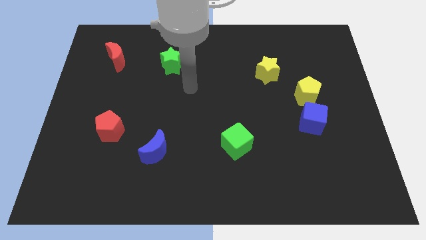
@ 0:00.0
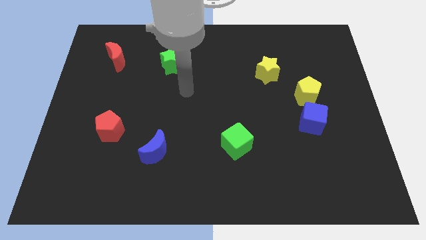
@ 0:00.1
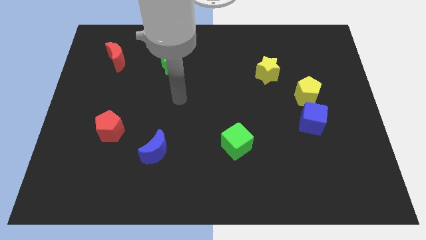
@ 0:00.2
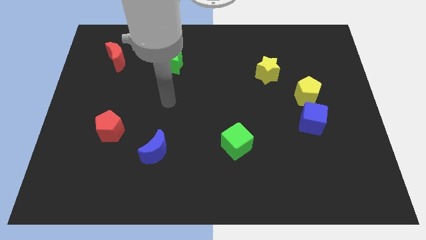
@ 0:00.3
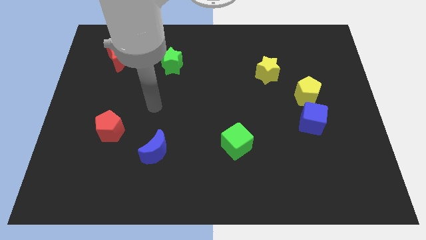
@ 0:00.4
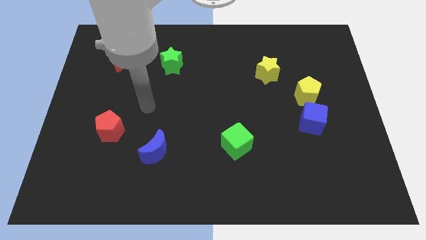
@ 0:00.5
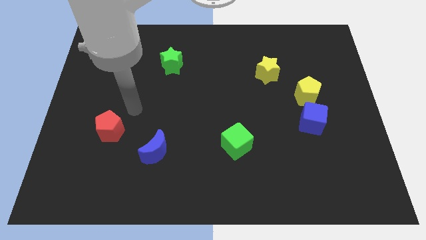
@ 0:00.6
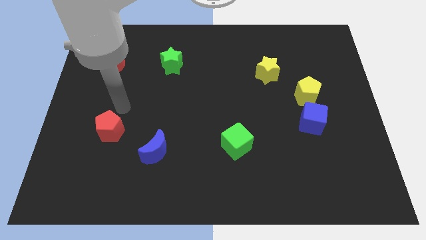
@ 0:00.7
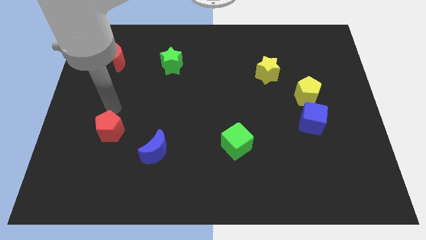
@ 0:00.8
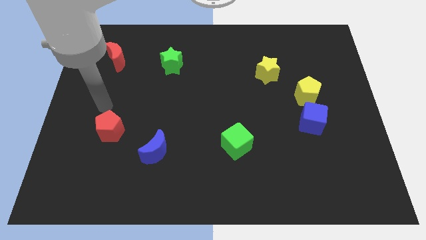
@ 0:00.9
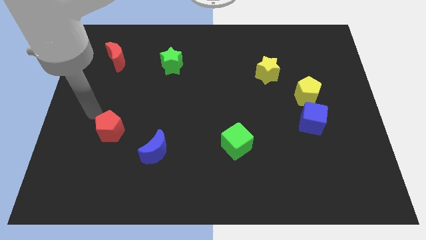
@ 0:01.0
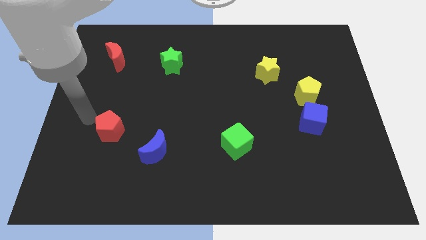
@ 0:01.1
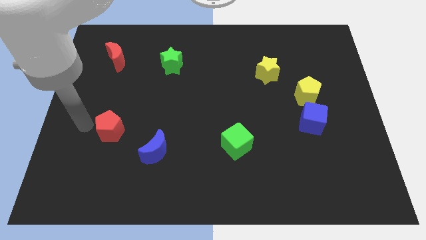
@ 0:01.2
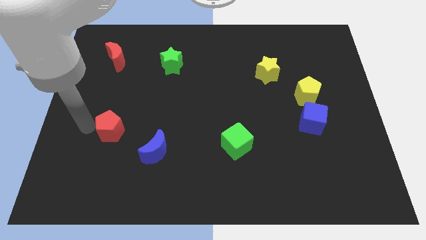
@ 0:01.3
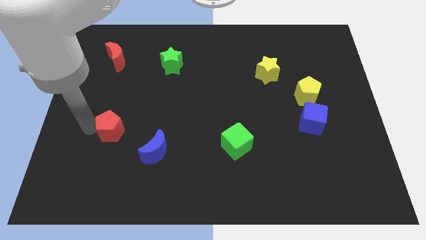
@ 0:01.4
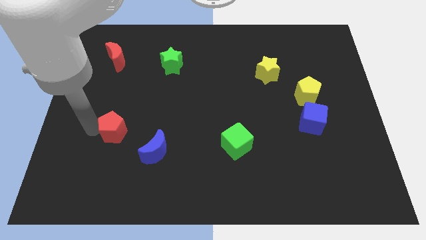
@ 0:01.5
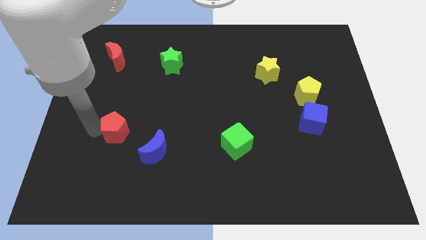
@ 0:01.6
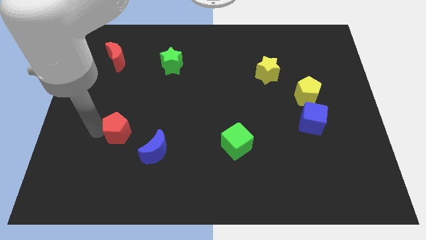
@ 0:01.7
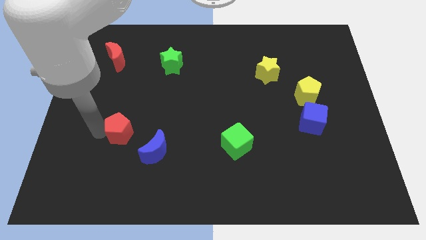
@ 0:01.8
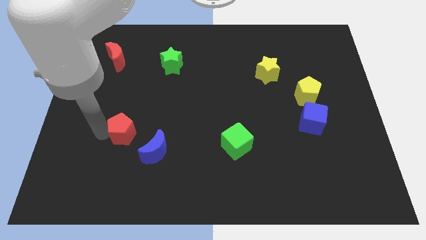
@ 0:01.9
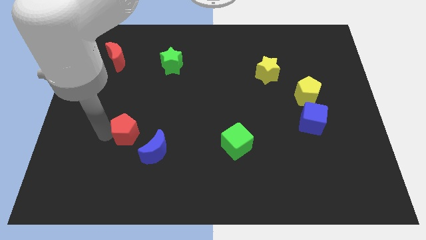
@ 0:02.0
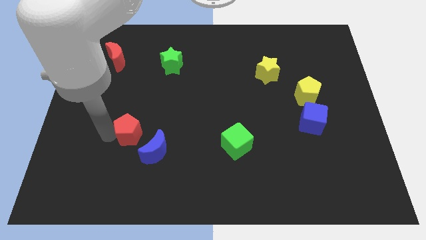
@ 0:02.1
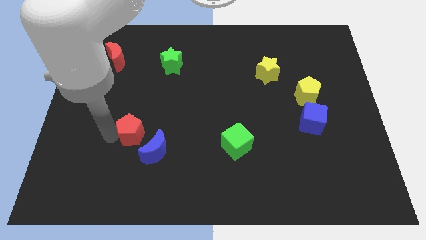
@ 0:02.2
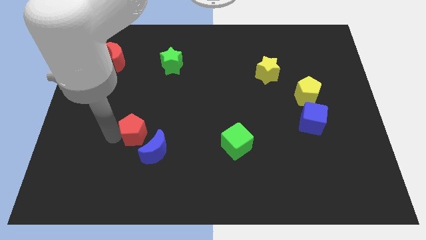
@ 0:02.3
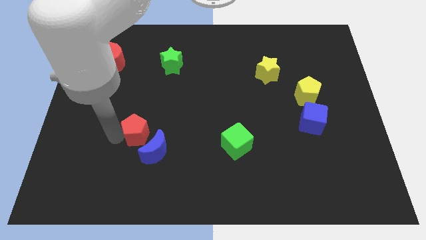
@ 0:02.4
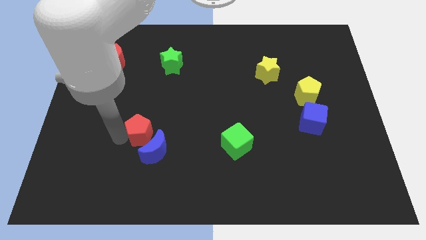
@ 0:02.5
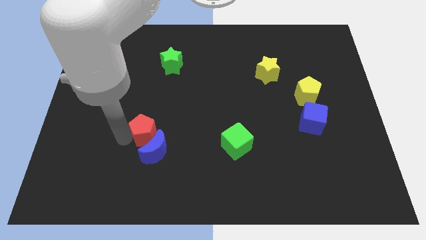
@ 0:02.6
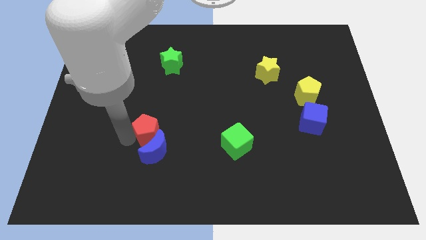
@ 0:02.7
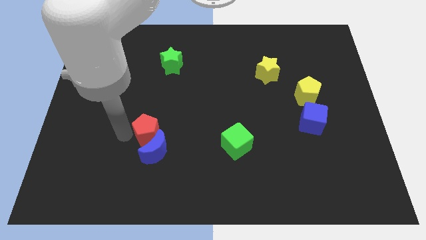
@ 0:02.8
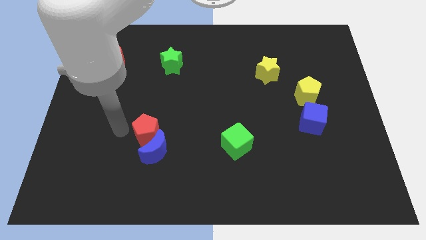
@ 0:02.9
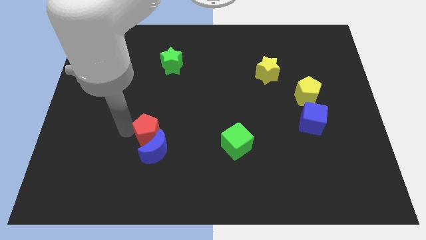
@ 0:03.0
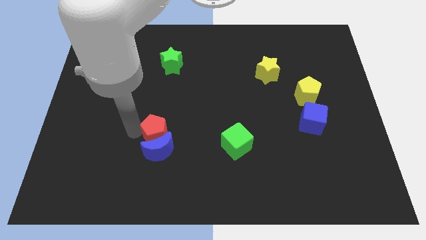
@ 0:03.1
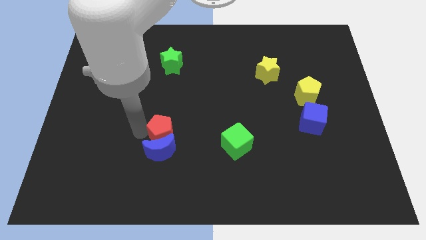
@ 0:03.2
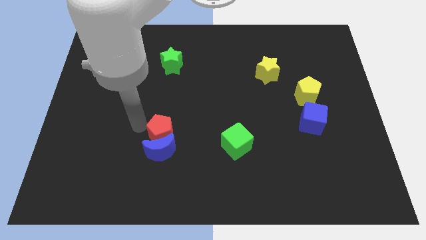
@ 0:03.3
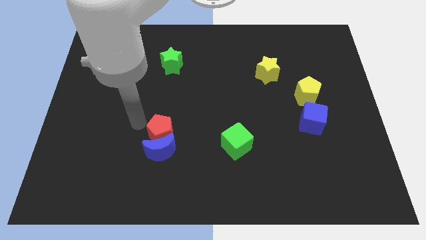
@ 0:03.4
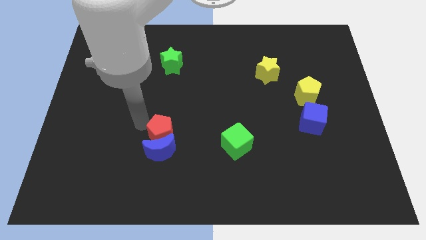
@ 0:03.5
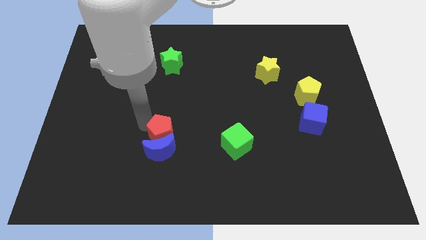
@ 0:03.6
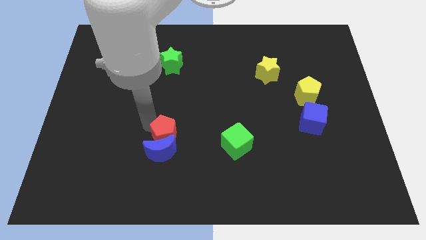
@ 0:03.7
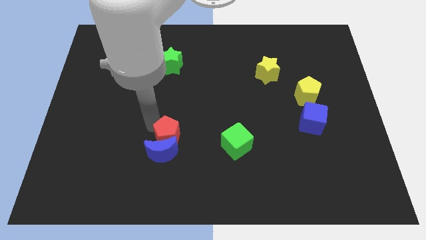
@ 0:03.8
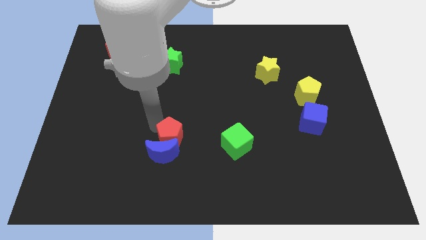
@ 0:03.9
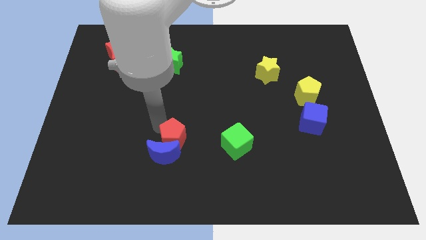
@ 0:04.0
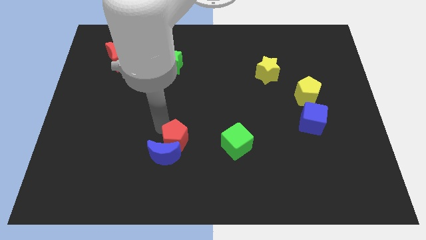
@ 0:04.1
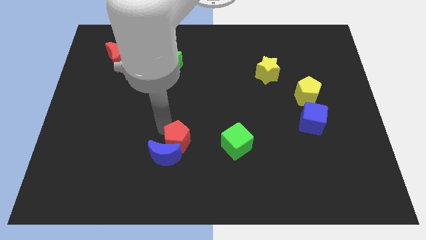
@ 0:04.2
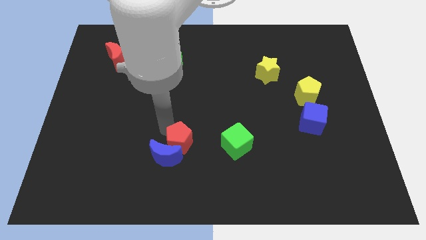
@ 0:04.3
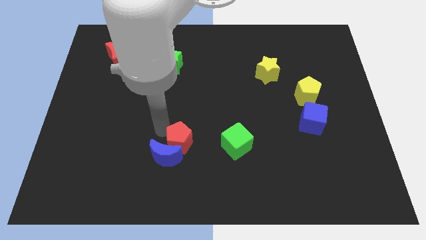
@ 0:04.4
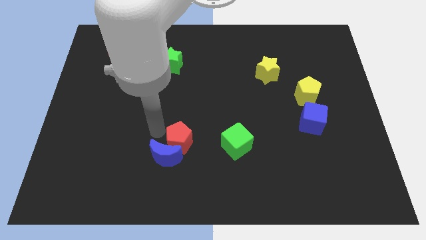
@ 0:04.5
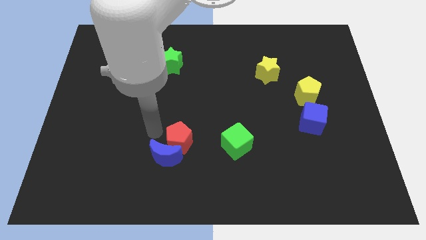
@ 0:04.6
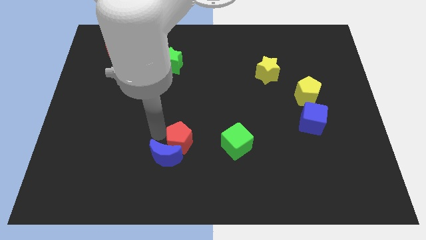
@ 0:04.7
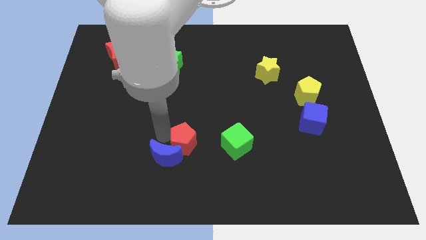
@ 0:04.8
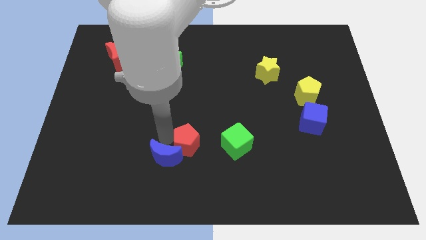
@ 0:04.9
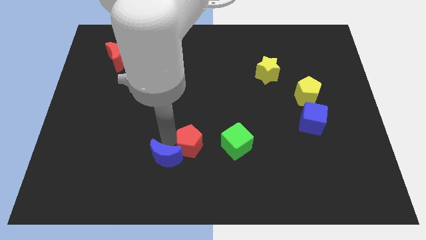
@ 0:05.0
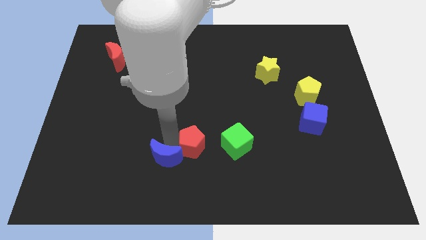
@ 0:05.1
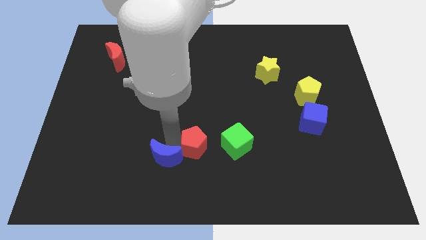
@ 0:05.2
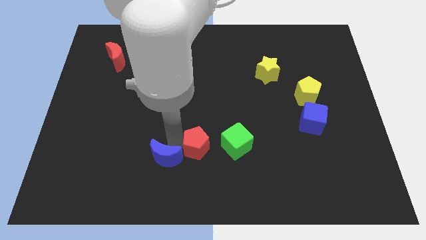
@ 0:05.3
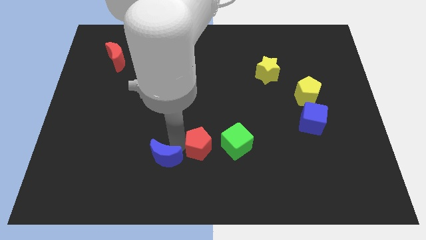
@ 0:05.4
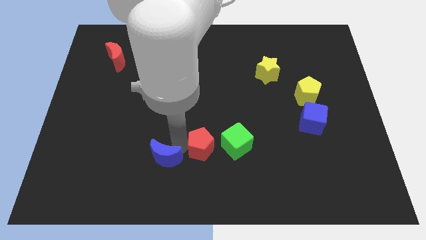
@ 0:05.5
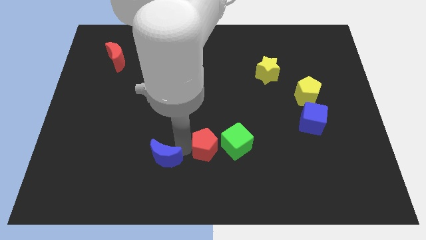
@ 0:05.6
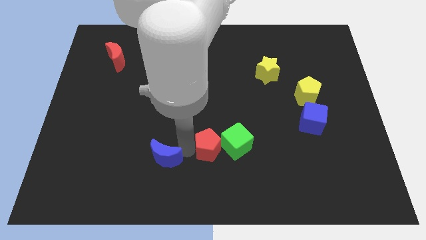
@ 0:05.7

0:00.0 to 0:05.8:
slide the red pentagon next to the green cube

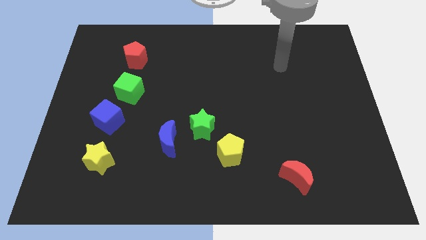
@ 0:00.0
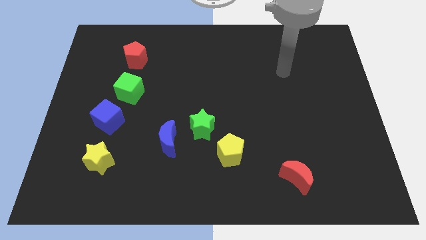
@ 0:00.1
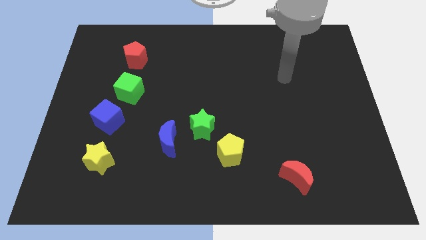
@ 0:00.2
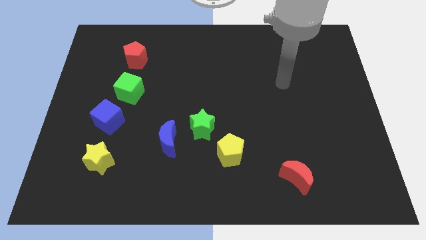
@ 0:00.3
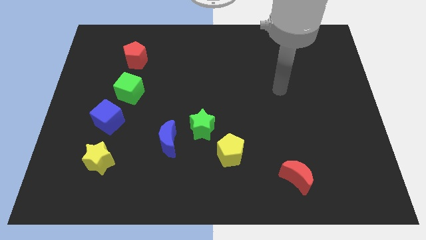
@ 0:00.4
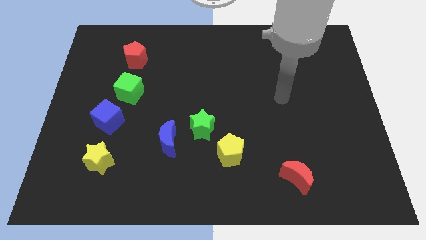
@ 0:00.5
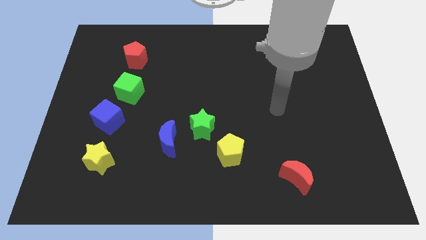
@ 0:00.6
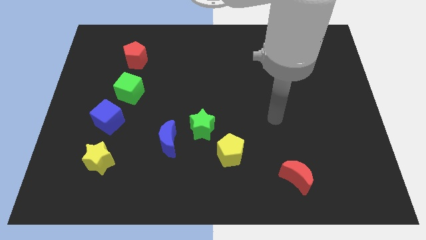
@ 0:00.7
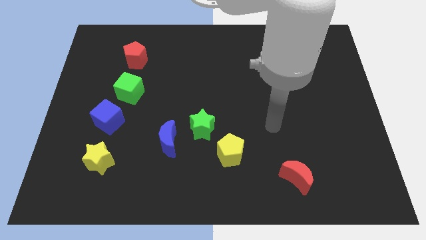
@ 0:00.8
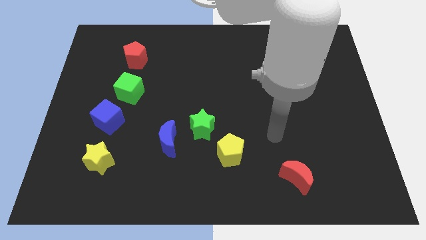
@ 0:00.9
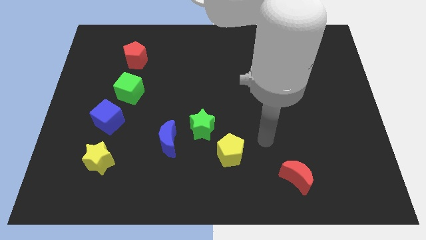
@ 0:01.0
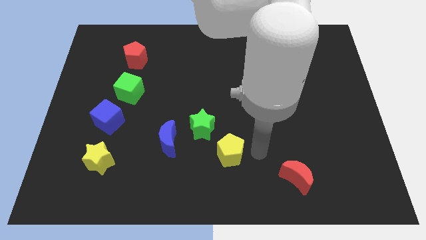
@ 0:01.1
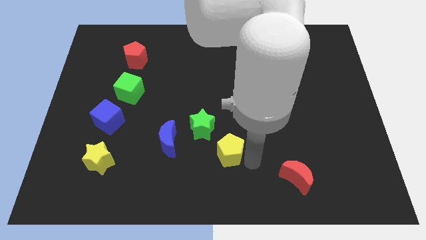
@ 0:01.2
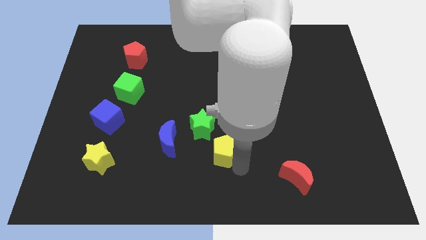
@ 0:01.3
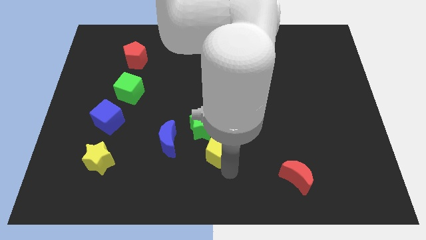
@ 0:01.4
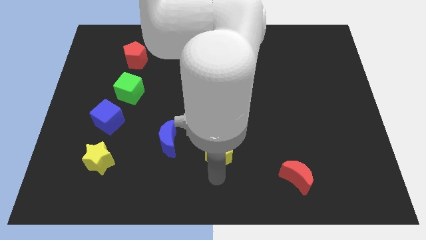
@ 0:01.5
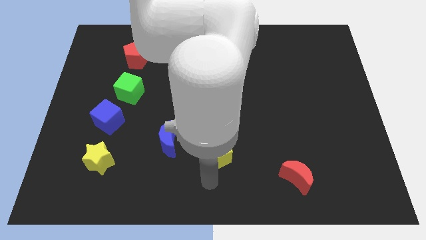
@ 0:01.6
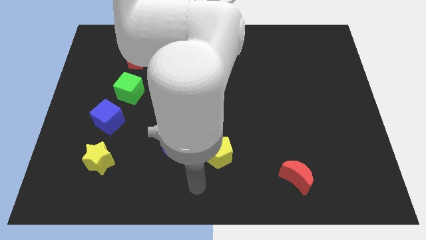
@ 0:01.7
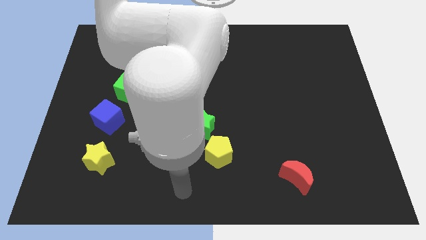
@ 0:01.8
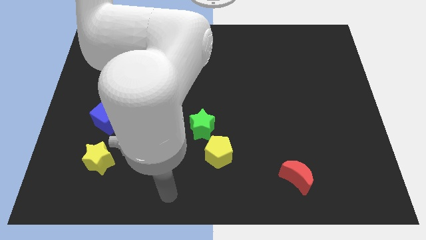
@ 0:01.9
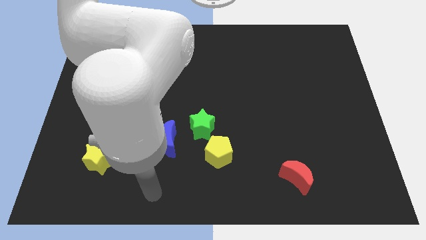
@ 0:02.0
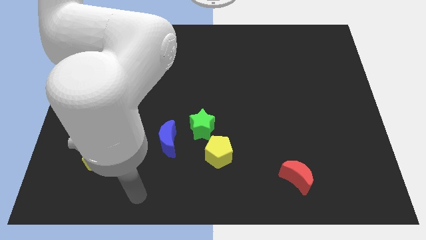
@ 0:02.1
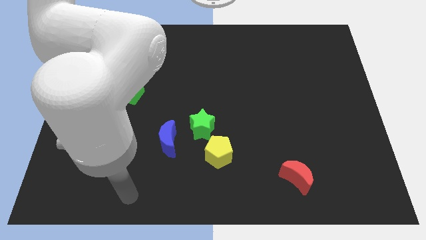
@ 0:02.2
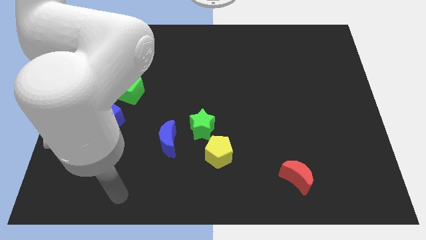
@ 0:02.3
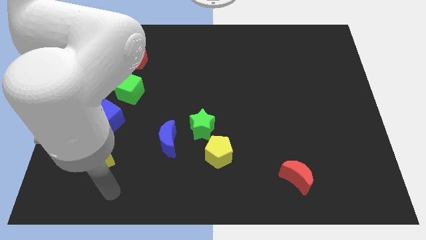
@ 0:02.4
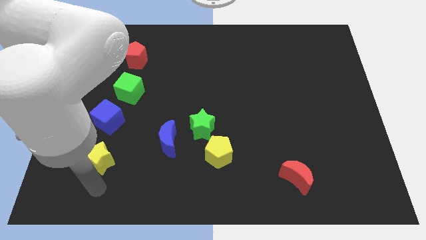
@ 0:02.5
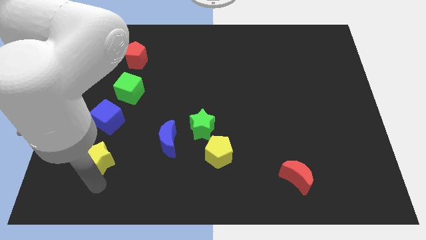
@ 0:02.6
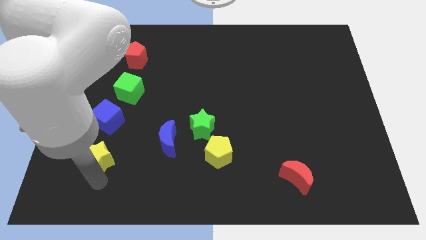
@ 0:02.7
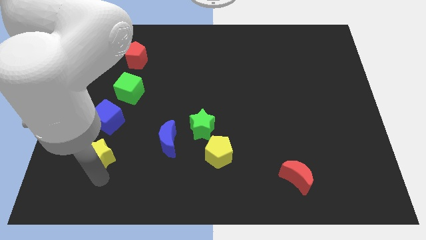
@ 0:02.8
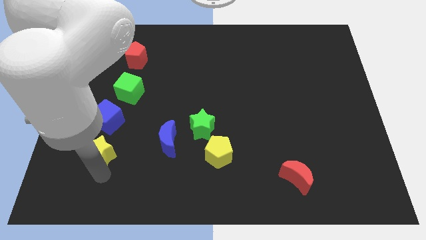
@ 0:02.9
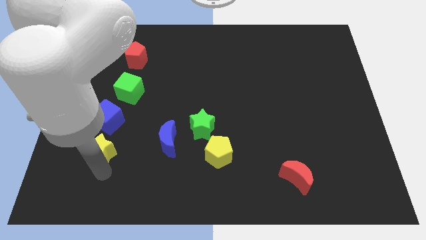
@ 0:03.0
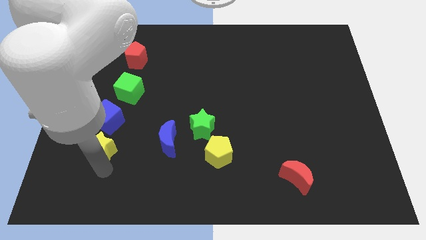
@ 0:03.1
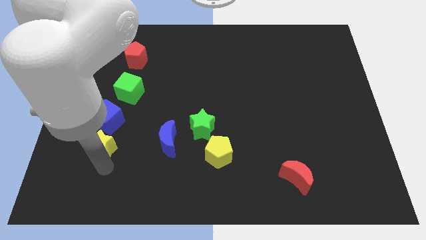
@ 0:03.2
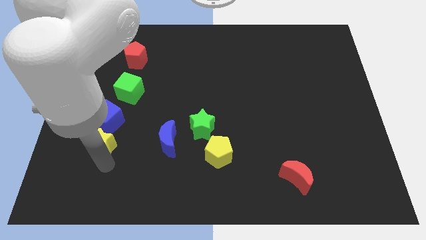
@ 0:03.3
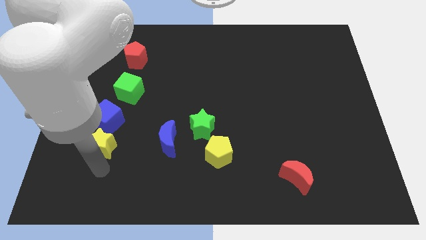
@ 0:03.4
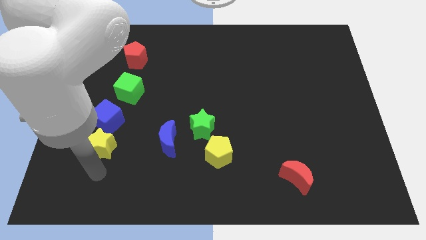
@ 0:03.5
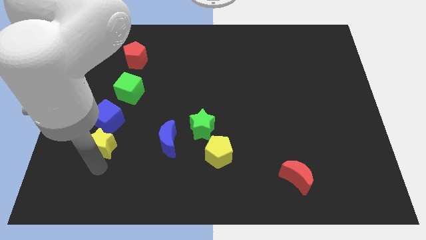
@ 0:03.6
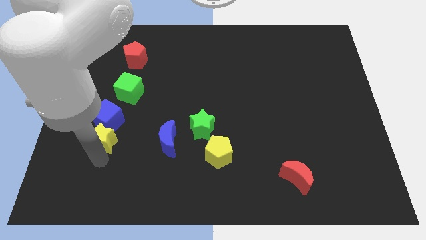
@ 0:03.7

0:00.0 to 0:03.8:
put the yellow star close to the blue cube
